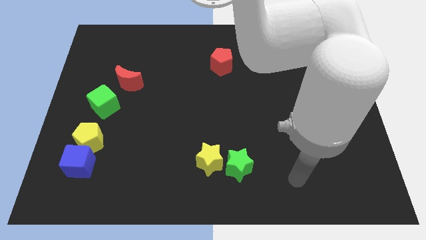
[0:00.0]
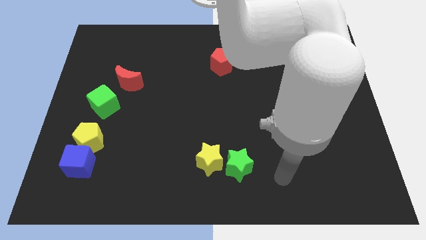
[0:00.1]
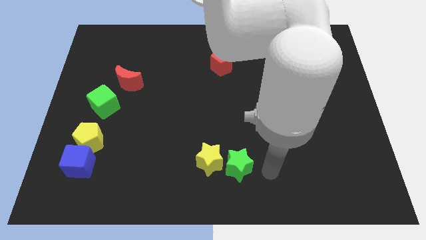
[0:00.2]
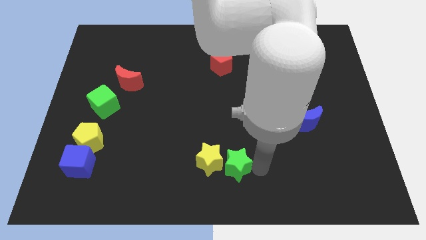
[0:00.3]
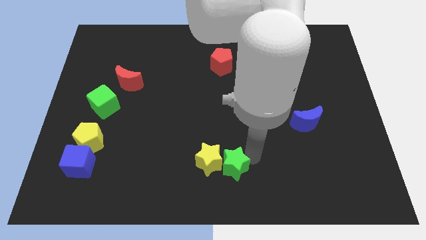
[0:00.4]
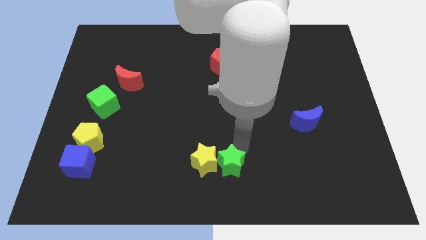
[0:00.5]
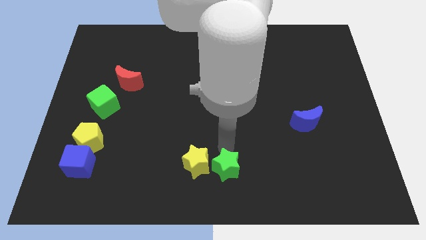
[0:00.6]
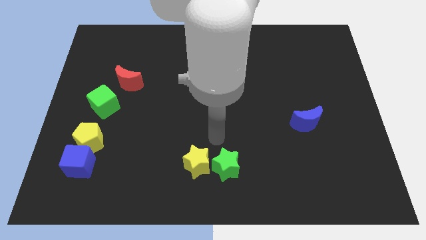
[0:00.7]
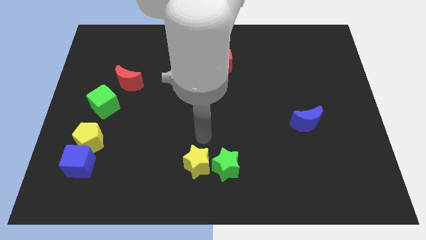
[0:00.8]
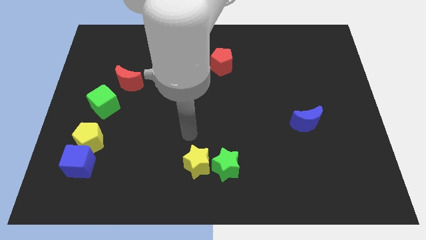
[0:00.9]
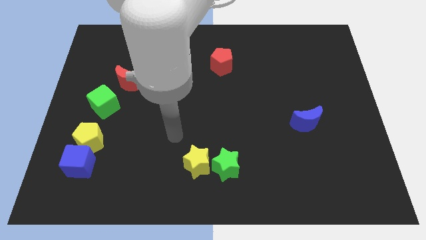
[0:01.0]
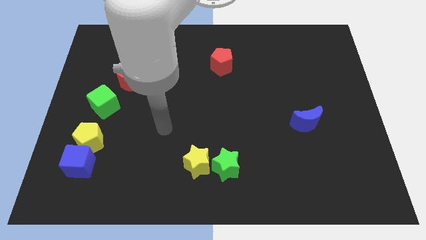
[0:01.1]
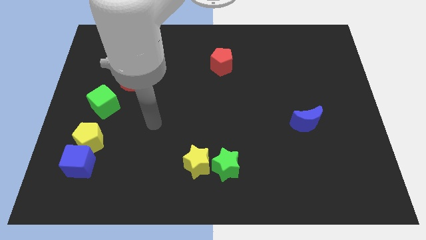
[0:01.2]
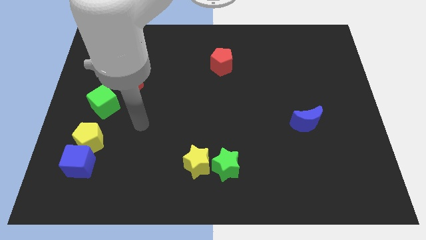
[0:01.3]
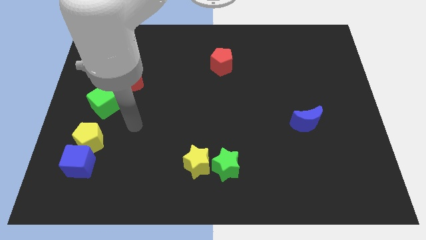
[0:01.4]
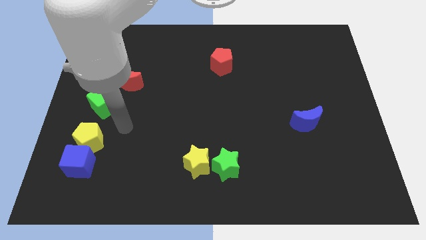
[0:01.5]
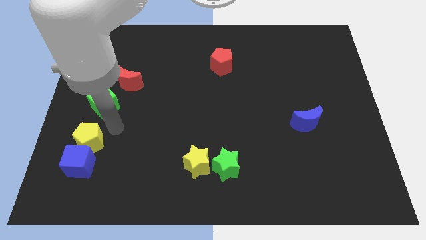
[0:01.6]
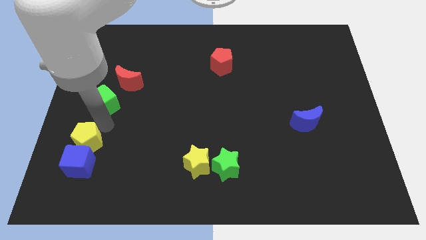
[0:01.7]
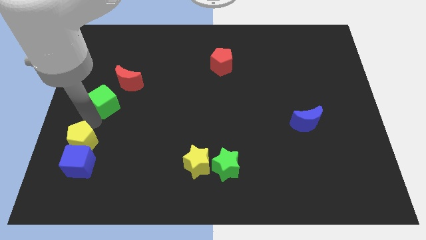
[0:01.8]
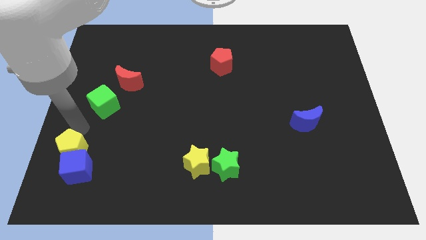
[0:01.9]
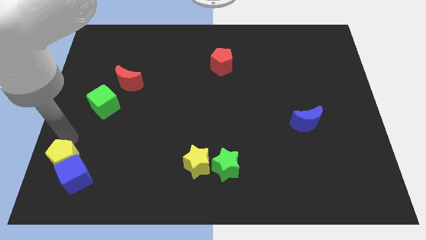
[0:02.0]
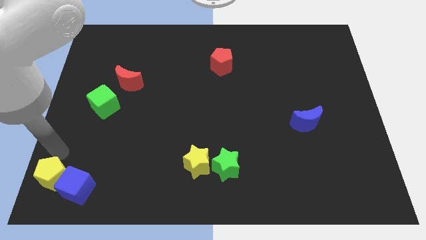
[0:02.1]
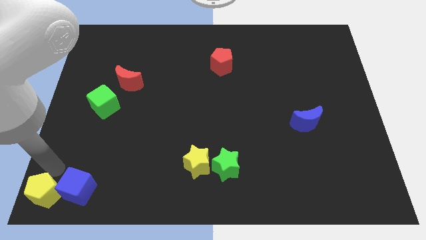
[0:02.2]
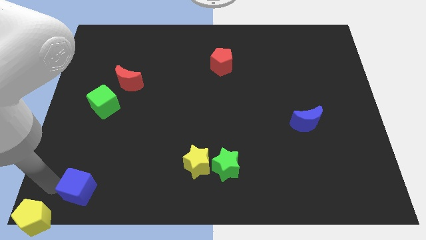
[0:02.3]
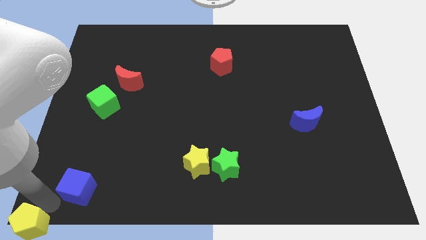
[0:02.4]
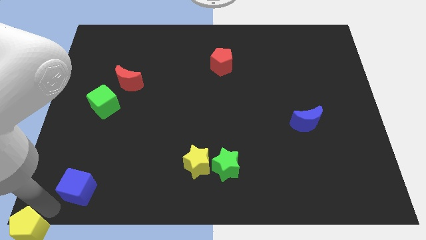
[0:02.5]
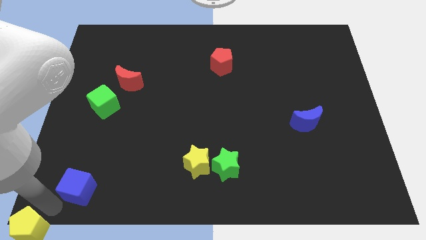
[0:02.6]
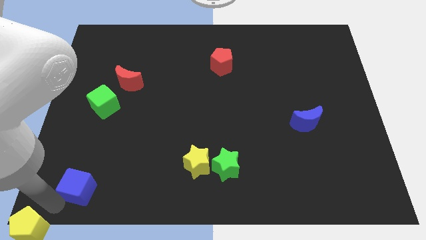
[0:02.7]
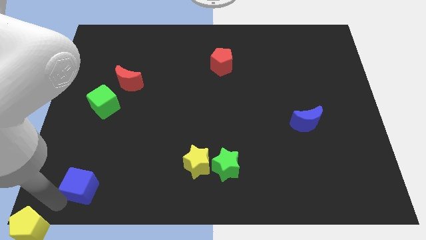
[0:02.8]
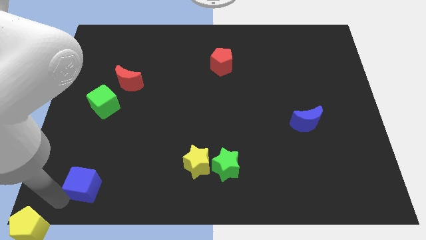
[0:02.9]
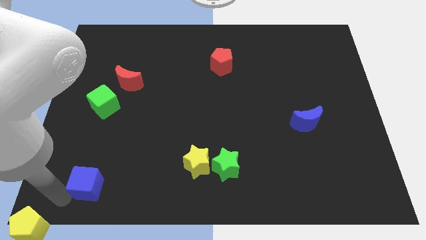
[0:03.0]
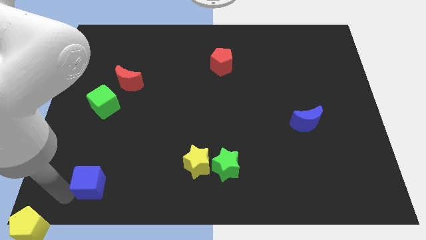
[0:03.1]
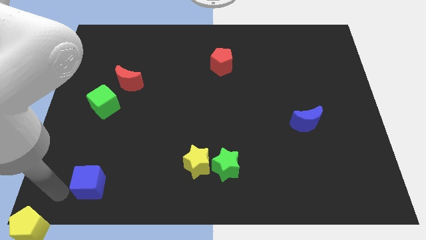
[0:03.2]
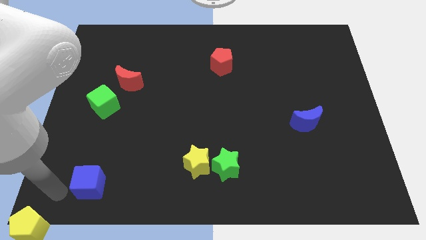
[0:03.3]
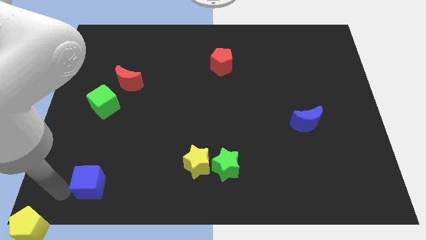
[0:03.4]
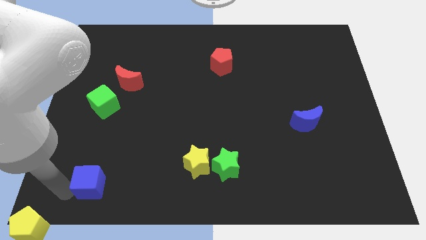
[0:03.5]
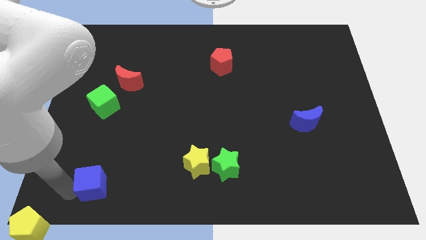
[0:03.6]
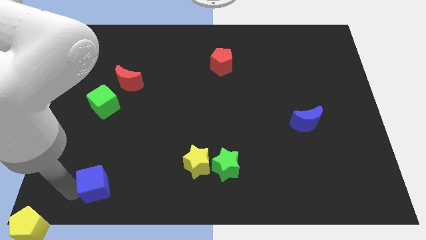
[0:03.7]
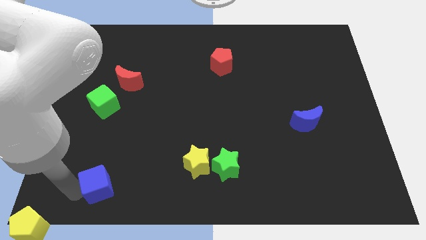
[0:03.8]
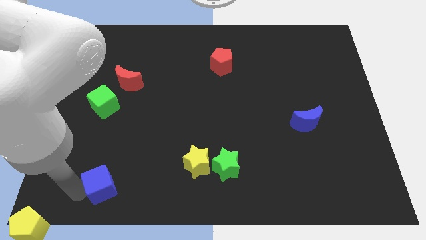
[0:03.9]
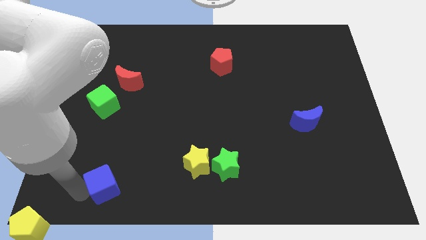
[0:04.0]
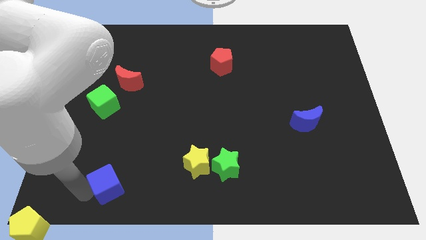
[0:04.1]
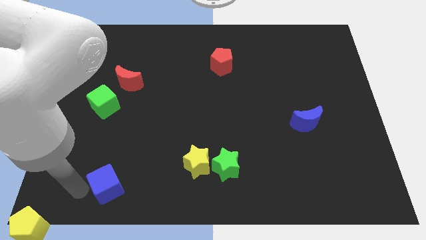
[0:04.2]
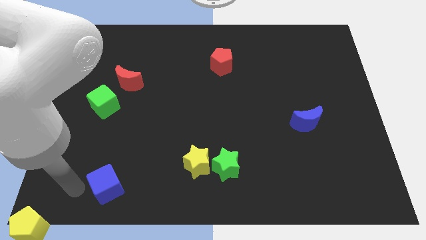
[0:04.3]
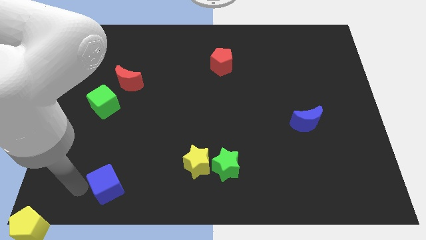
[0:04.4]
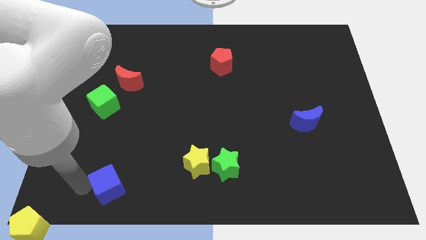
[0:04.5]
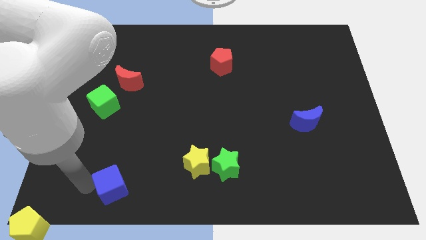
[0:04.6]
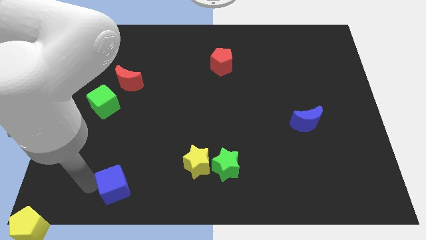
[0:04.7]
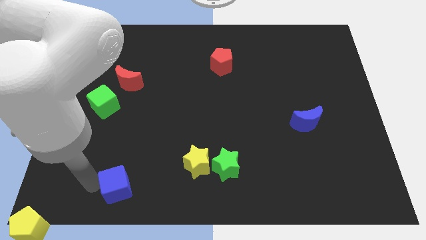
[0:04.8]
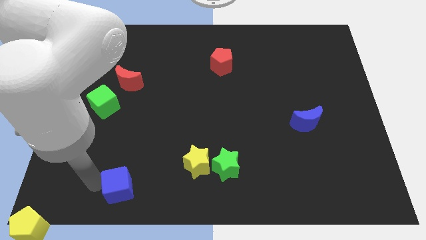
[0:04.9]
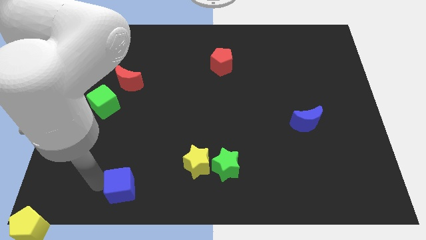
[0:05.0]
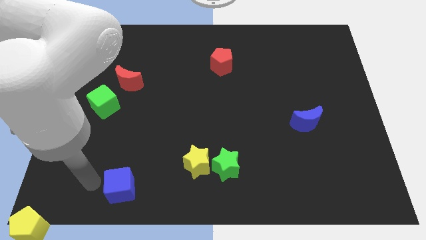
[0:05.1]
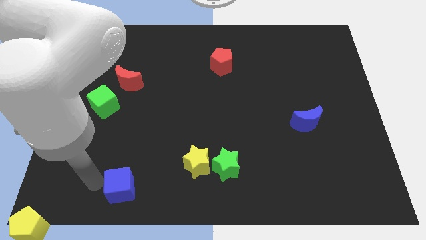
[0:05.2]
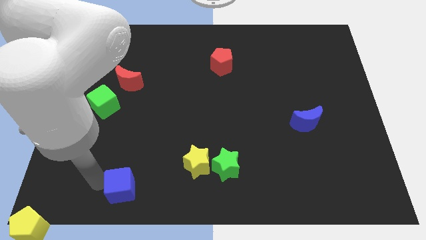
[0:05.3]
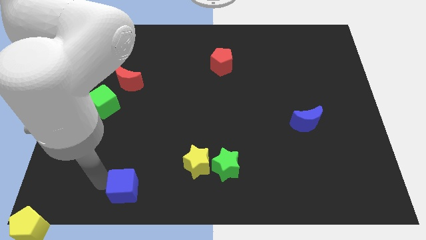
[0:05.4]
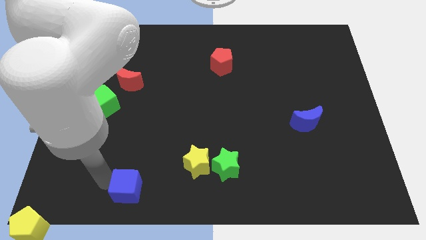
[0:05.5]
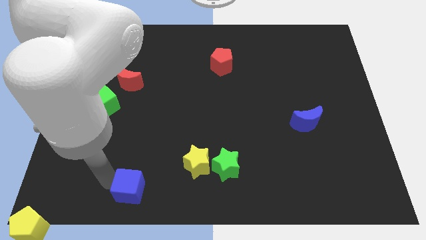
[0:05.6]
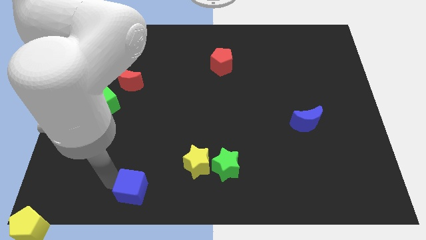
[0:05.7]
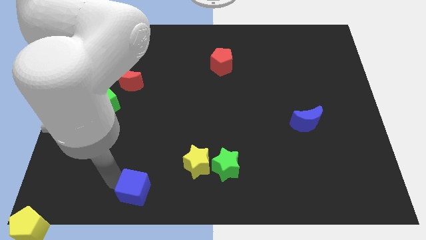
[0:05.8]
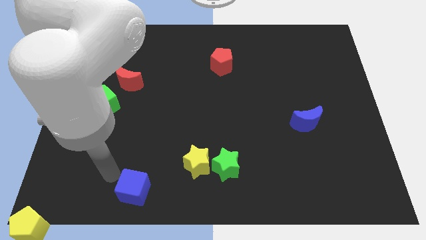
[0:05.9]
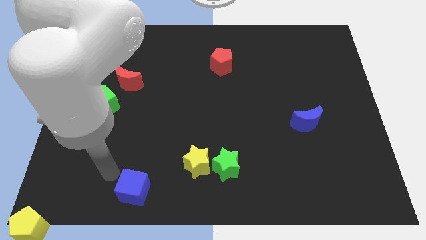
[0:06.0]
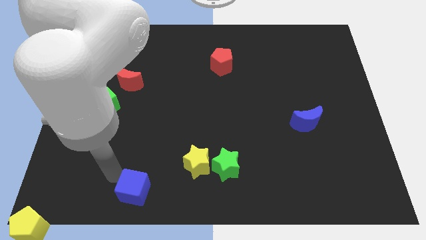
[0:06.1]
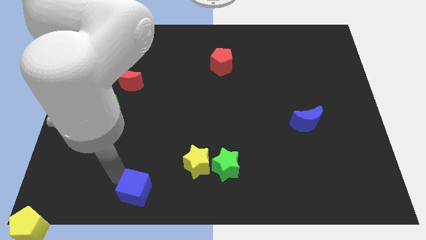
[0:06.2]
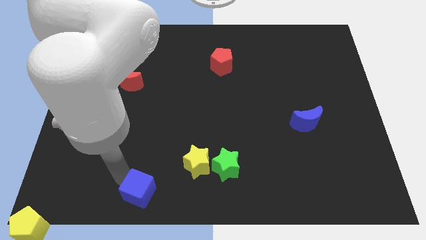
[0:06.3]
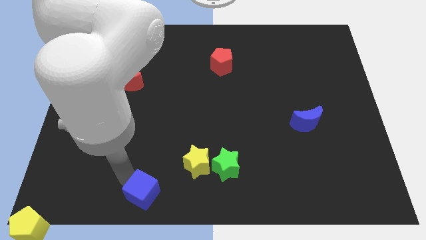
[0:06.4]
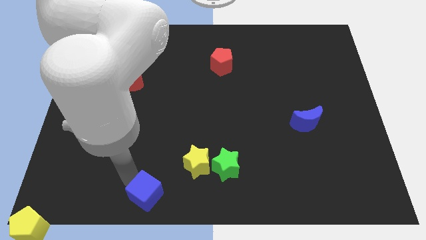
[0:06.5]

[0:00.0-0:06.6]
slide the blue cube to the bottom side
